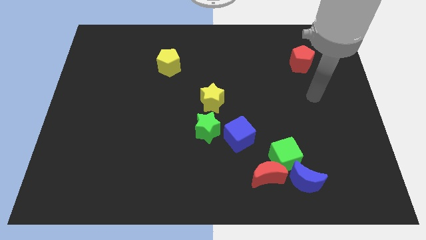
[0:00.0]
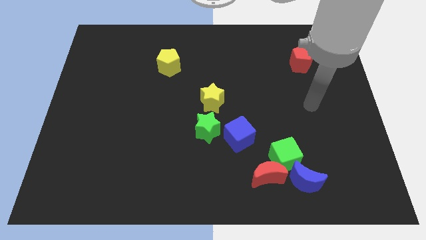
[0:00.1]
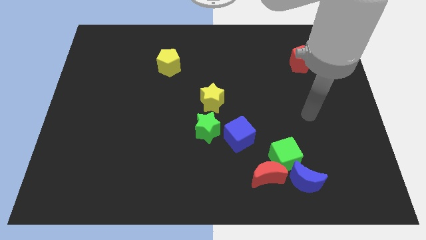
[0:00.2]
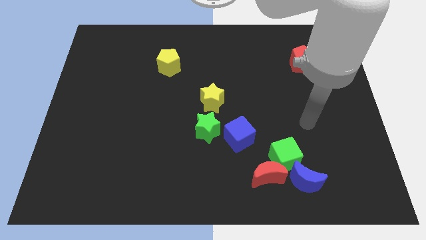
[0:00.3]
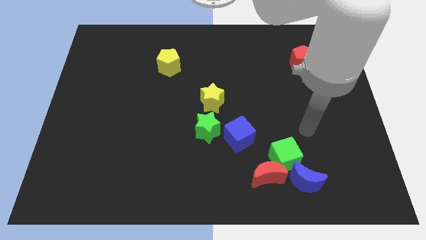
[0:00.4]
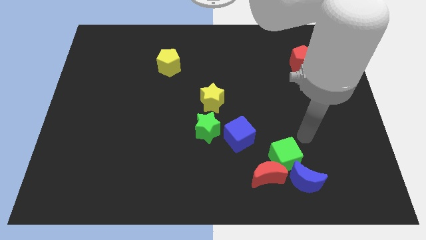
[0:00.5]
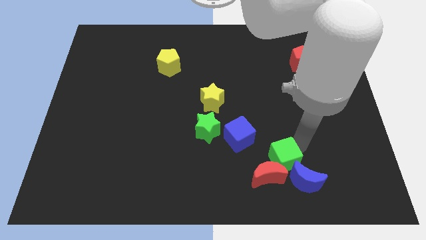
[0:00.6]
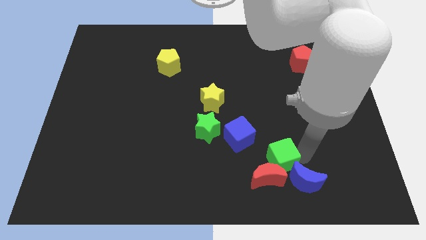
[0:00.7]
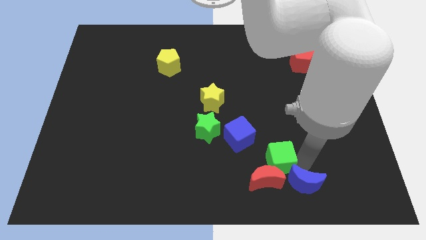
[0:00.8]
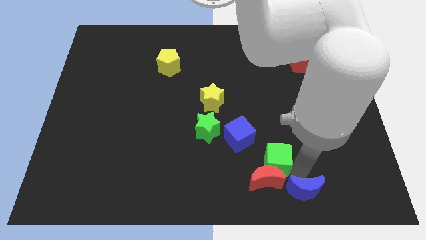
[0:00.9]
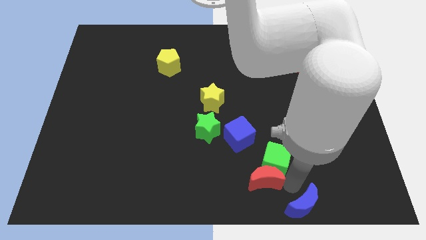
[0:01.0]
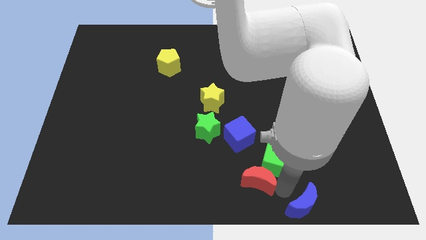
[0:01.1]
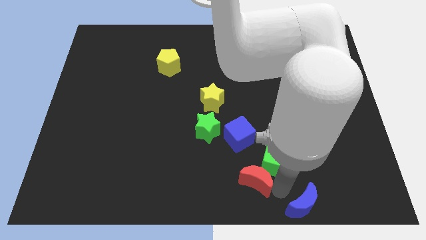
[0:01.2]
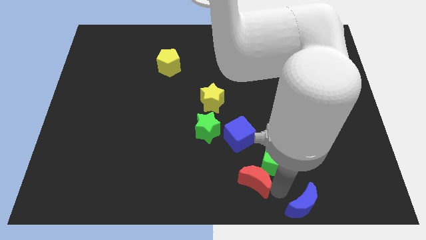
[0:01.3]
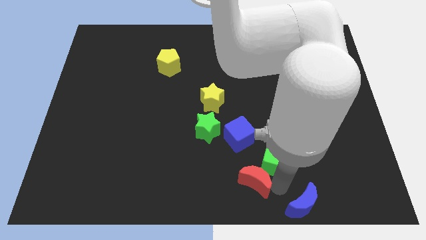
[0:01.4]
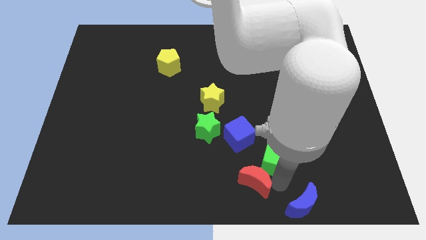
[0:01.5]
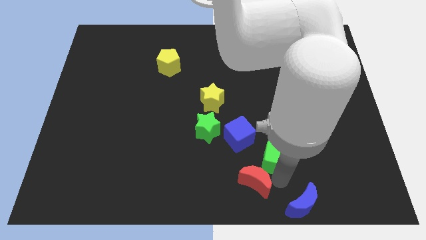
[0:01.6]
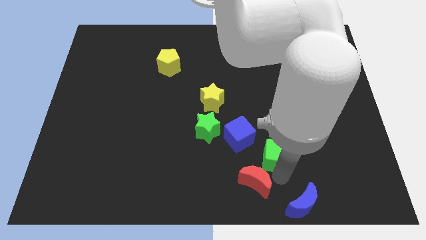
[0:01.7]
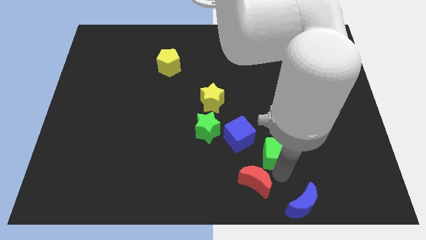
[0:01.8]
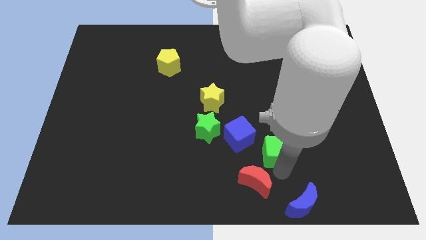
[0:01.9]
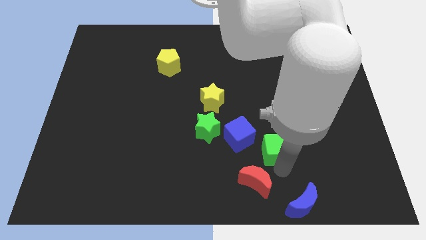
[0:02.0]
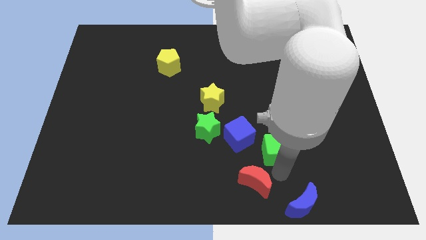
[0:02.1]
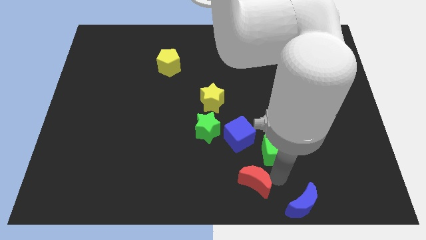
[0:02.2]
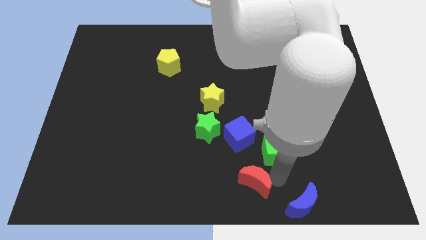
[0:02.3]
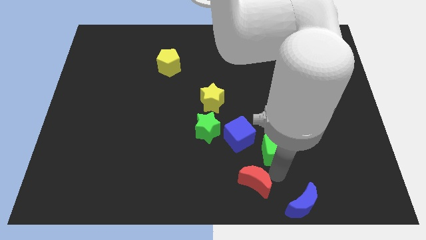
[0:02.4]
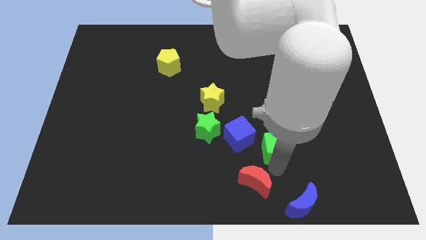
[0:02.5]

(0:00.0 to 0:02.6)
move the green cube away from the red moon and blue moon

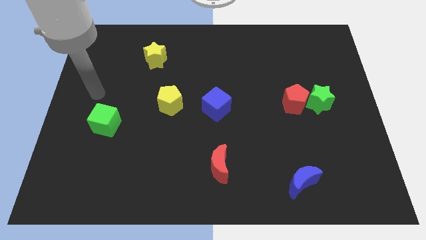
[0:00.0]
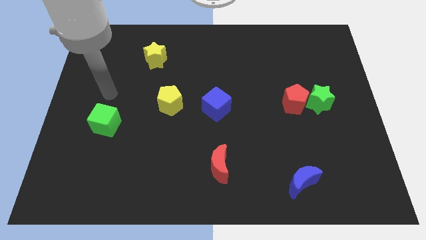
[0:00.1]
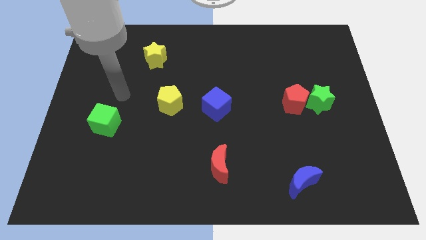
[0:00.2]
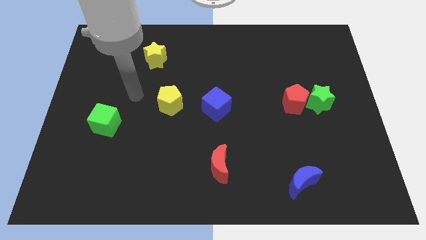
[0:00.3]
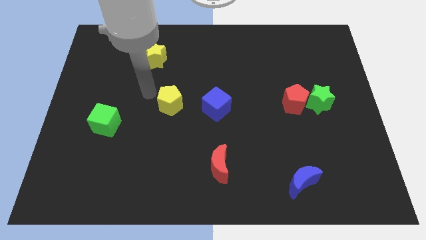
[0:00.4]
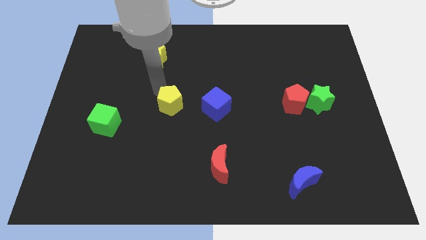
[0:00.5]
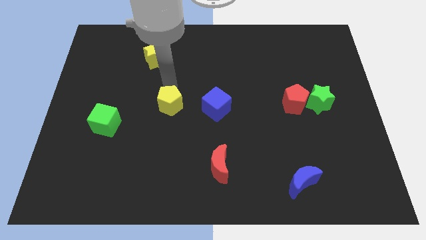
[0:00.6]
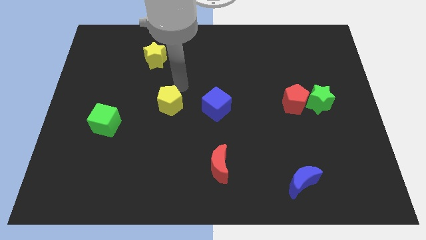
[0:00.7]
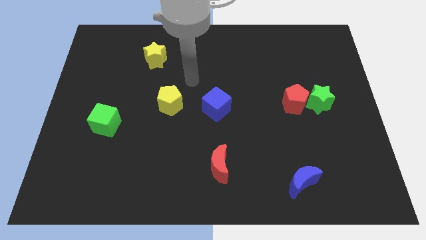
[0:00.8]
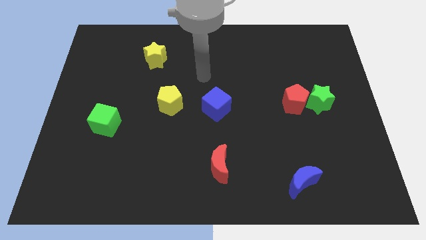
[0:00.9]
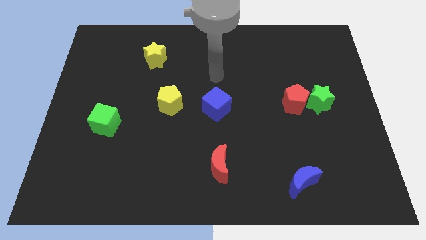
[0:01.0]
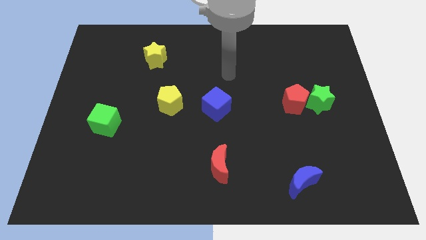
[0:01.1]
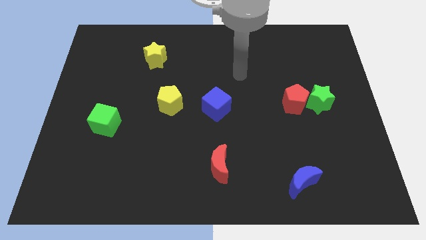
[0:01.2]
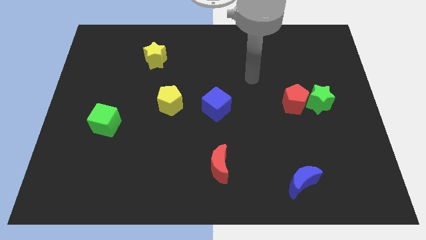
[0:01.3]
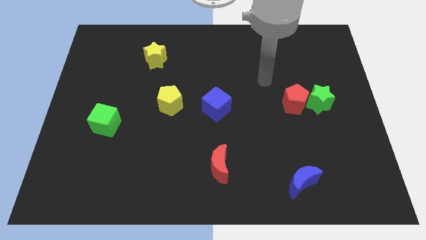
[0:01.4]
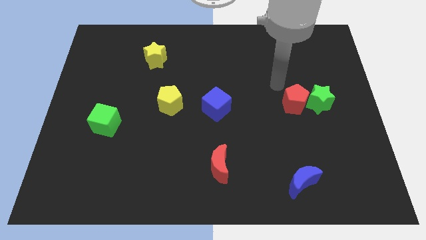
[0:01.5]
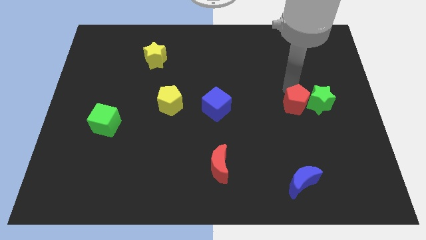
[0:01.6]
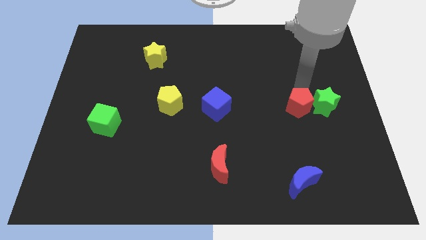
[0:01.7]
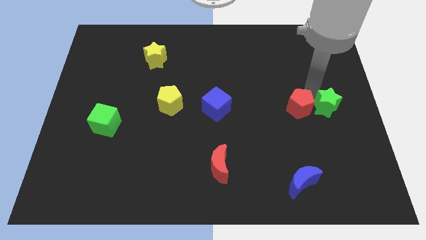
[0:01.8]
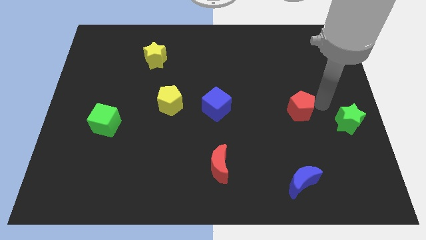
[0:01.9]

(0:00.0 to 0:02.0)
move the red pentagon away from the green star

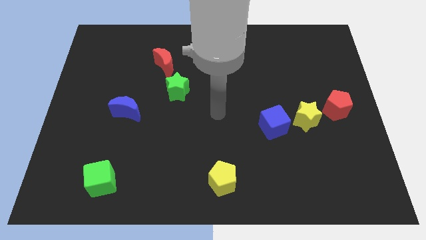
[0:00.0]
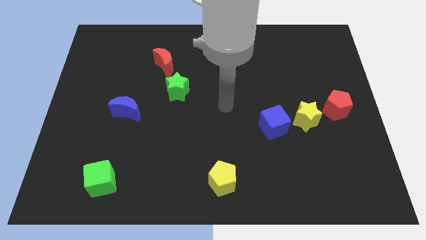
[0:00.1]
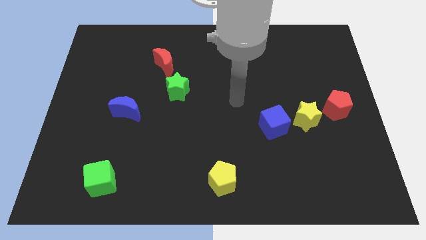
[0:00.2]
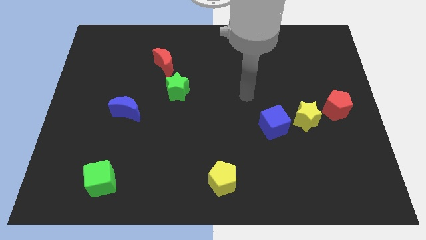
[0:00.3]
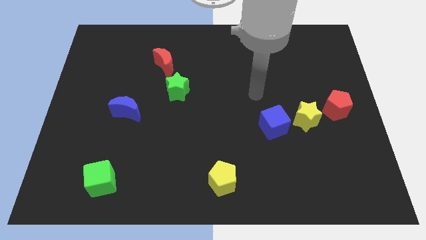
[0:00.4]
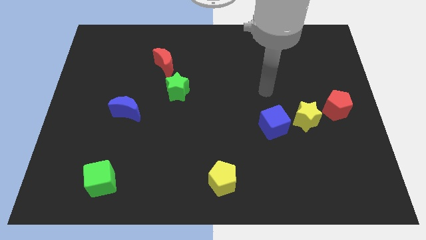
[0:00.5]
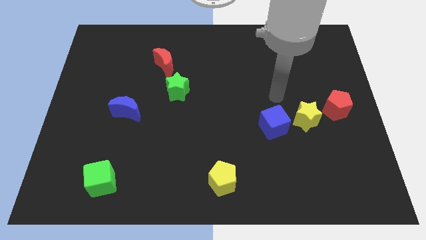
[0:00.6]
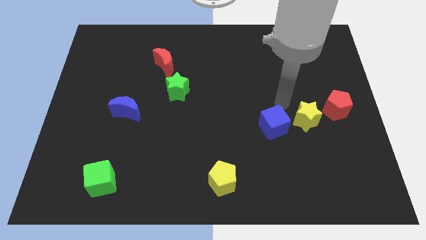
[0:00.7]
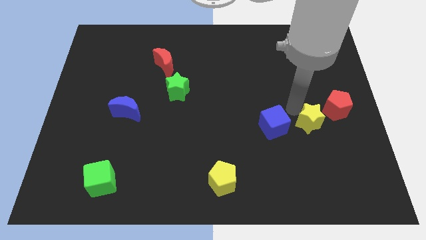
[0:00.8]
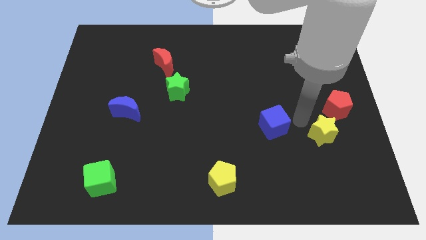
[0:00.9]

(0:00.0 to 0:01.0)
separate the blue cube from the yellow star

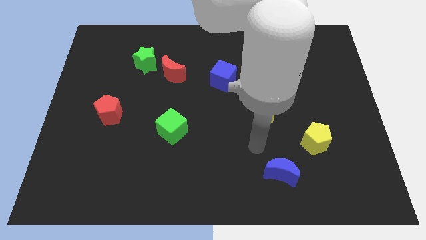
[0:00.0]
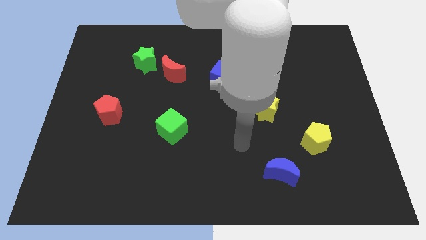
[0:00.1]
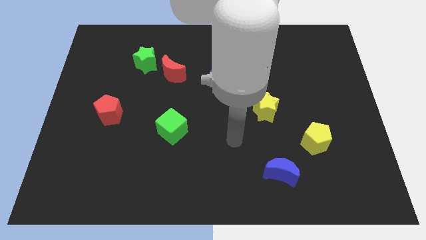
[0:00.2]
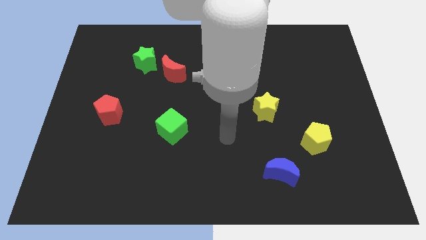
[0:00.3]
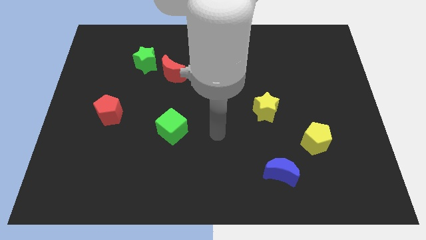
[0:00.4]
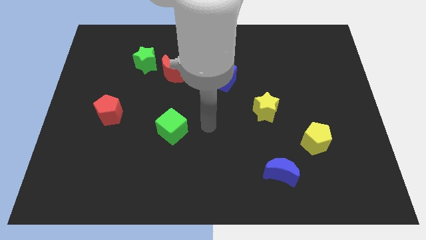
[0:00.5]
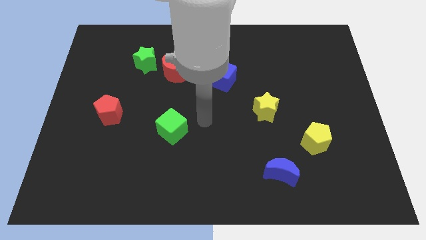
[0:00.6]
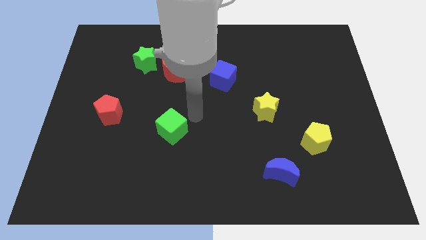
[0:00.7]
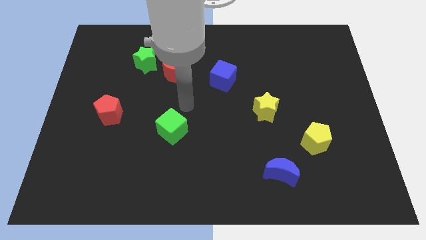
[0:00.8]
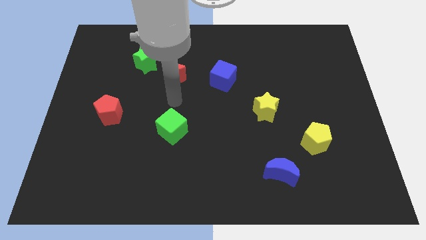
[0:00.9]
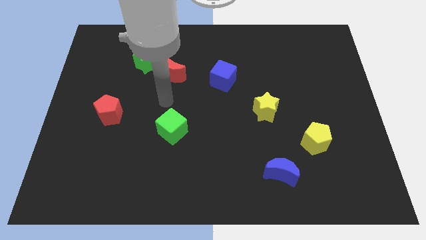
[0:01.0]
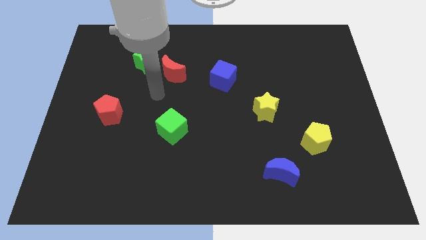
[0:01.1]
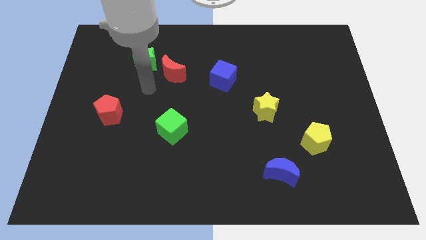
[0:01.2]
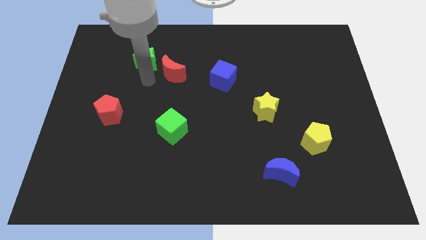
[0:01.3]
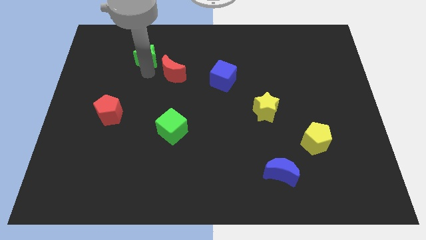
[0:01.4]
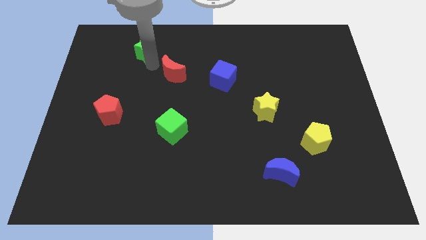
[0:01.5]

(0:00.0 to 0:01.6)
separate the red moon from the green star

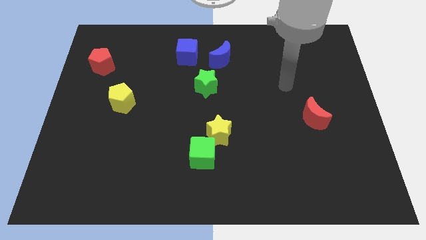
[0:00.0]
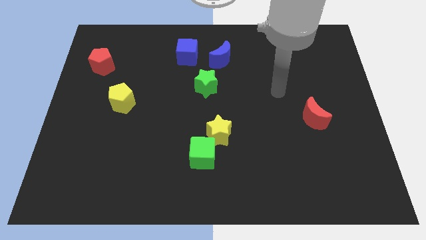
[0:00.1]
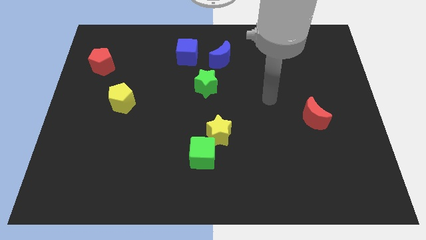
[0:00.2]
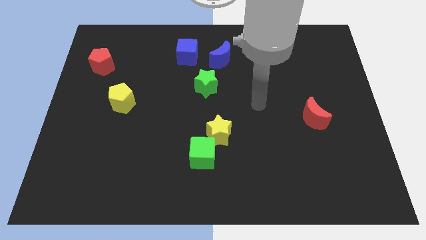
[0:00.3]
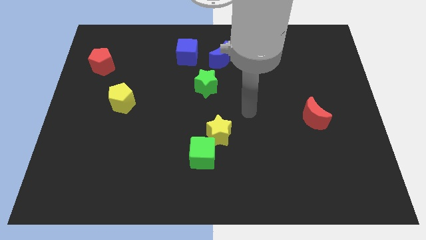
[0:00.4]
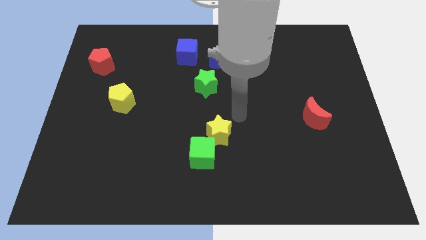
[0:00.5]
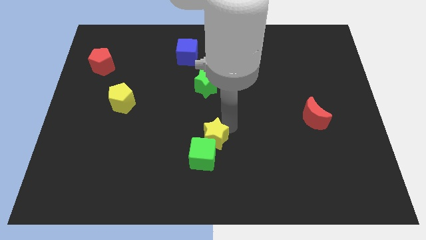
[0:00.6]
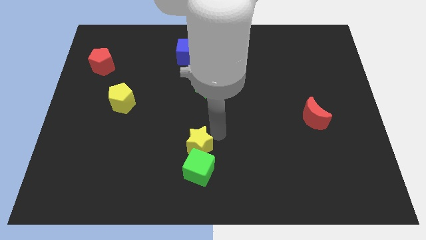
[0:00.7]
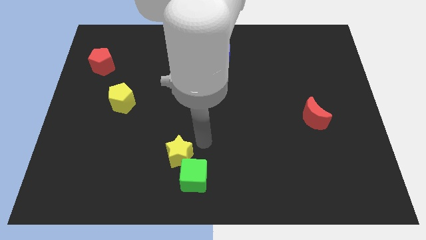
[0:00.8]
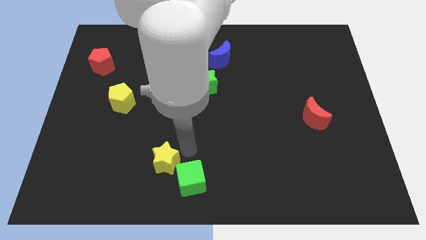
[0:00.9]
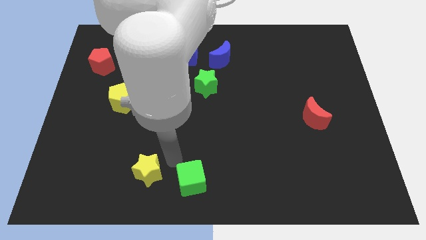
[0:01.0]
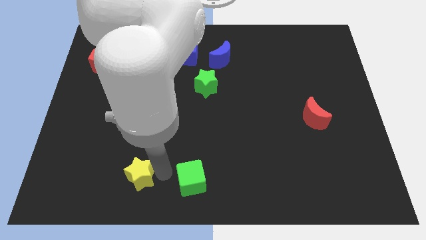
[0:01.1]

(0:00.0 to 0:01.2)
move the green cube away from the yellow star

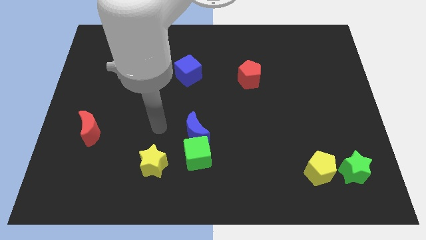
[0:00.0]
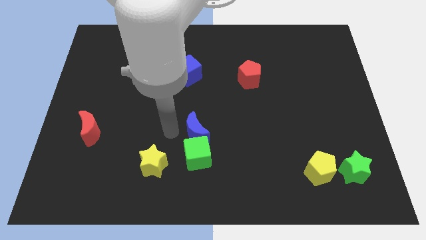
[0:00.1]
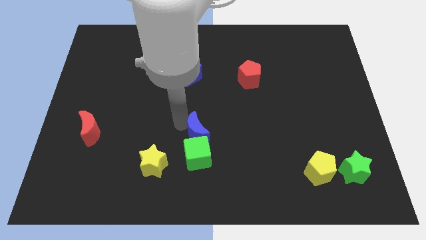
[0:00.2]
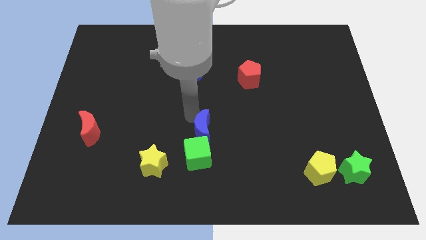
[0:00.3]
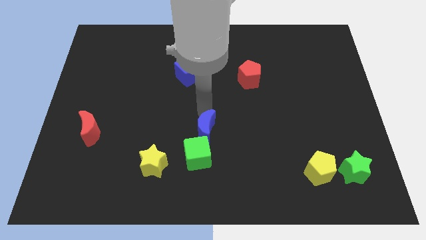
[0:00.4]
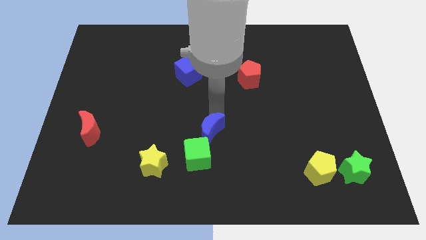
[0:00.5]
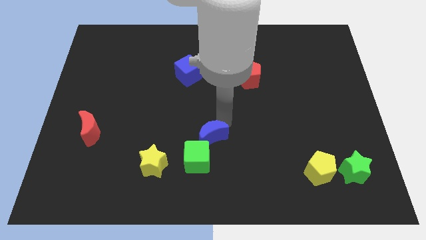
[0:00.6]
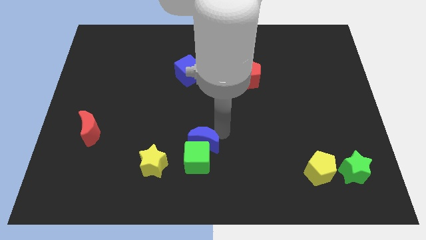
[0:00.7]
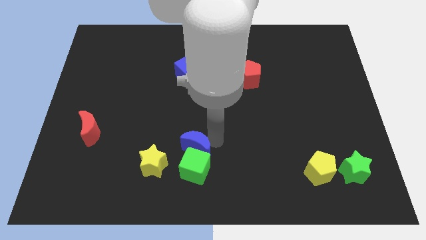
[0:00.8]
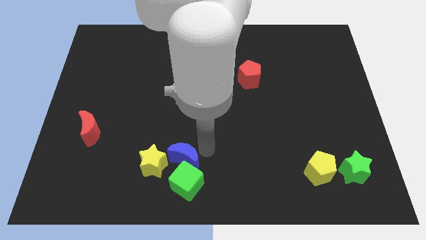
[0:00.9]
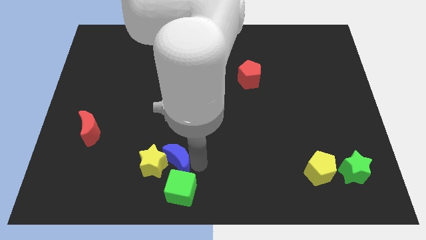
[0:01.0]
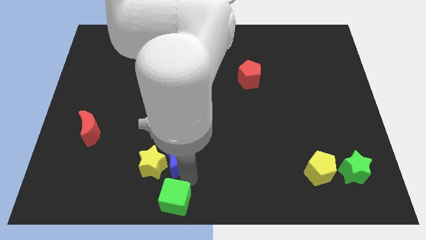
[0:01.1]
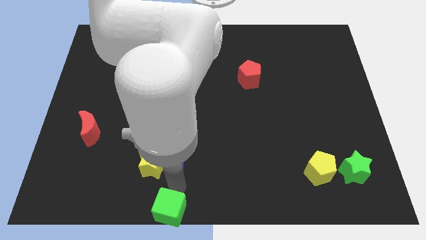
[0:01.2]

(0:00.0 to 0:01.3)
move the blue moon away from the green cube
